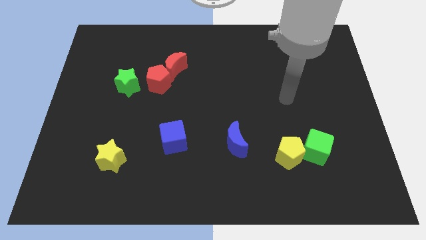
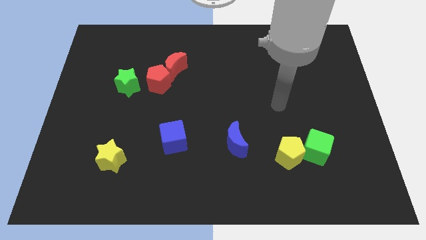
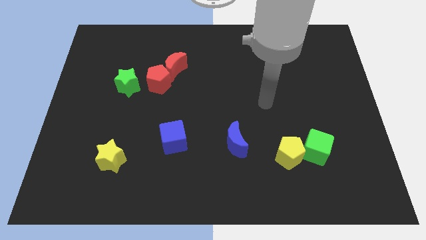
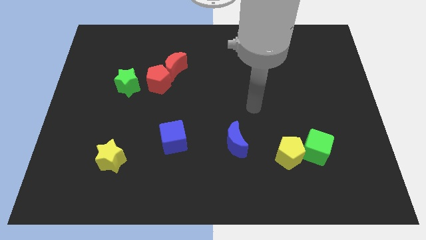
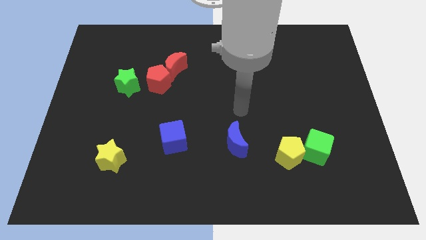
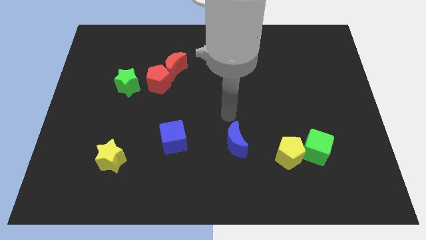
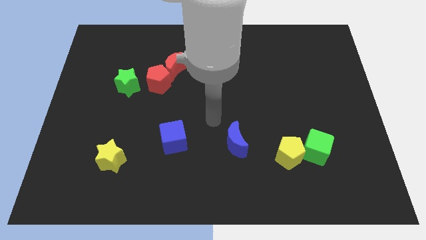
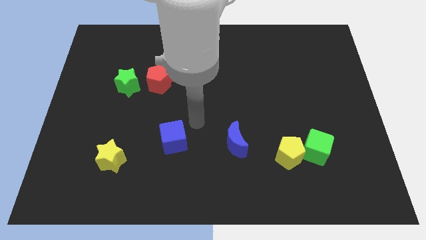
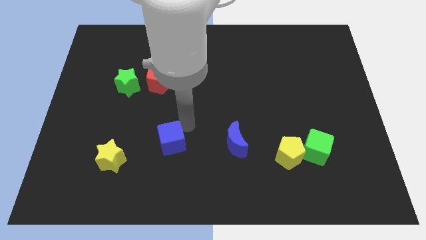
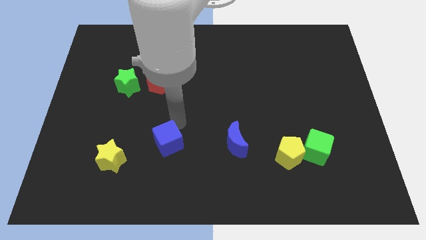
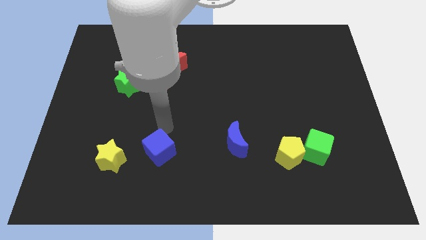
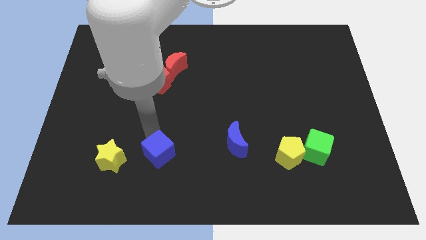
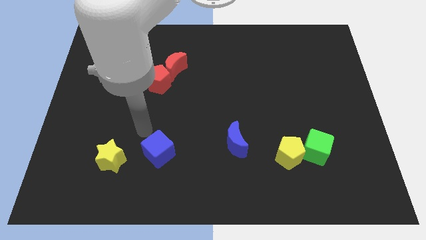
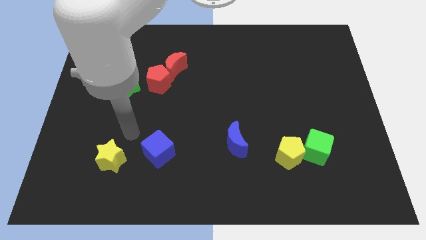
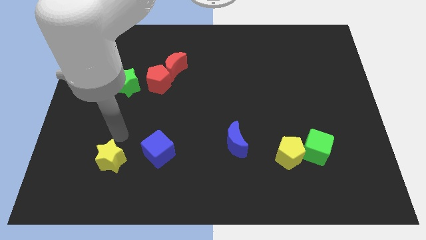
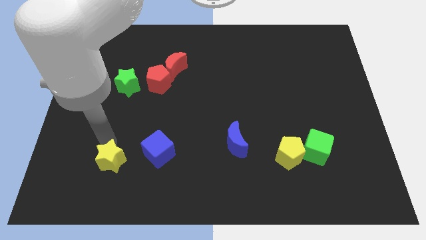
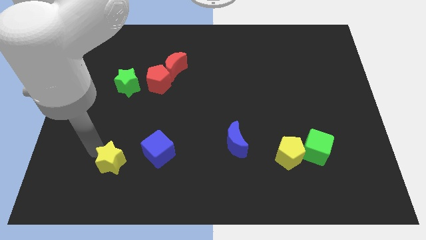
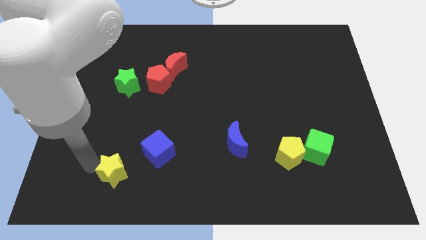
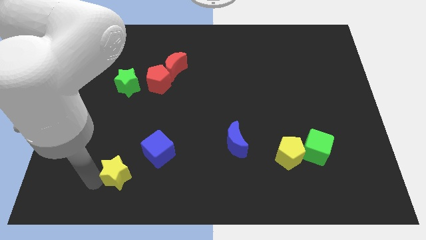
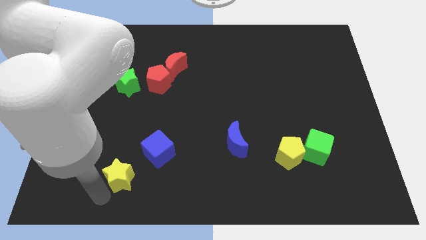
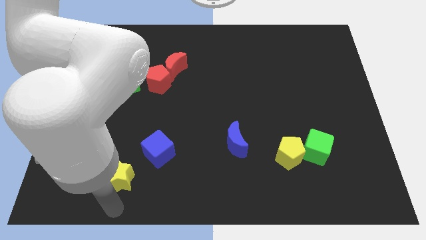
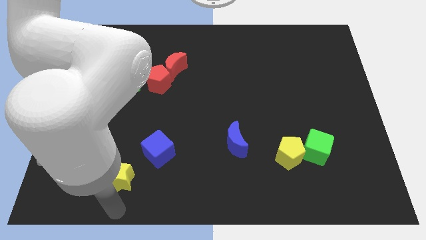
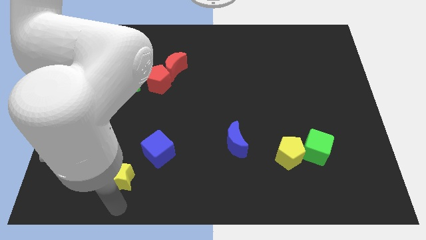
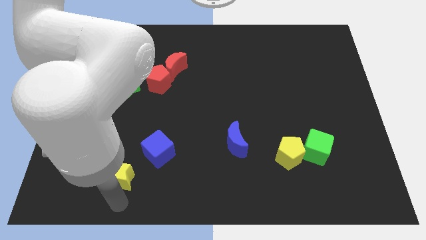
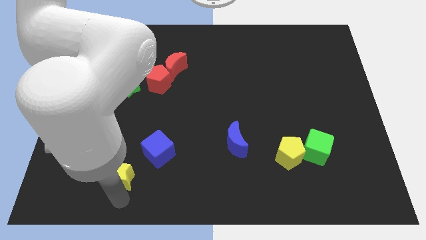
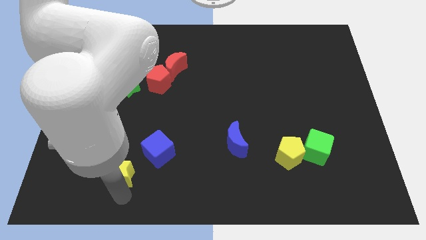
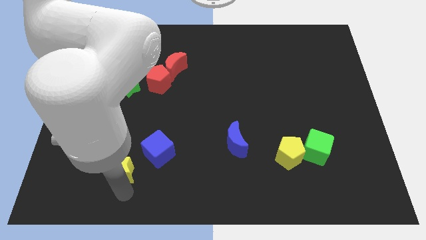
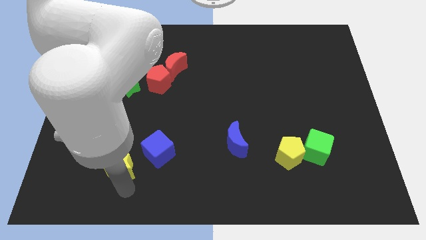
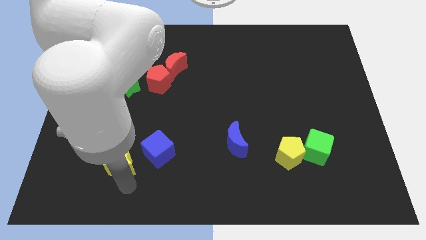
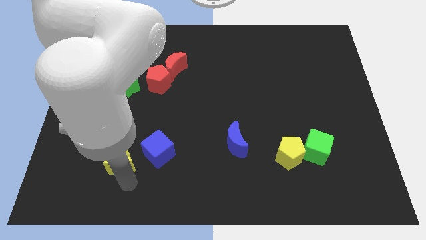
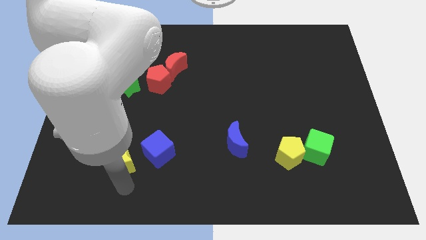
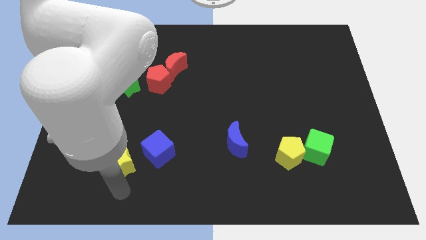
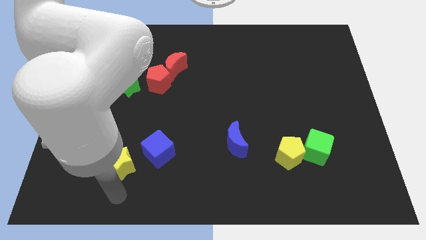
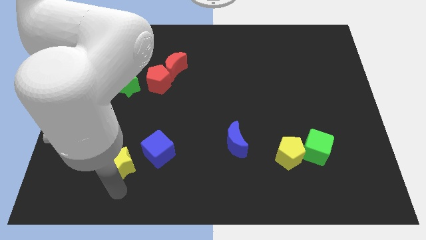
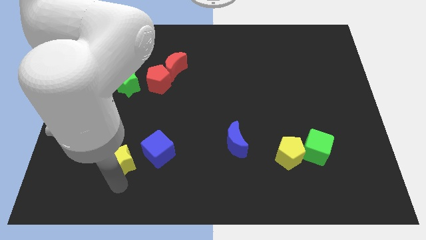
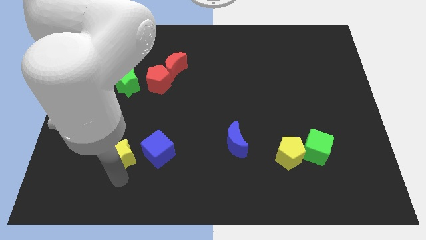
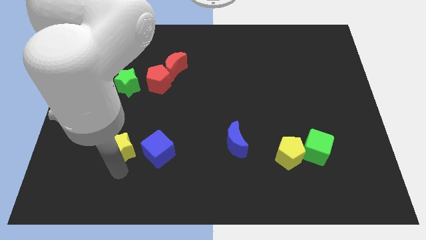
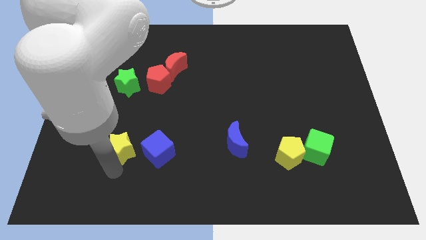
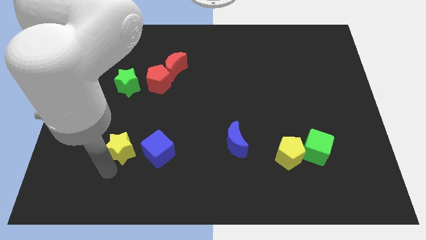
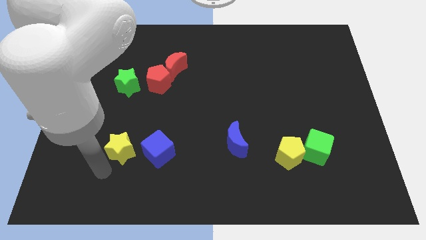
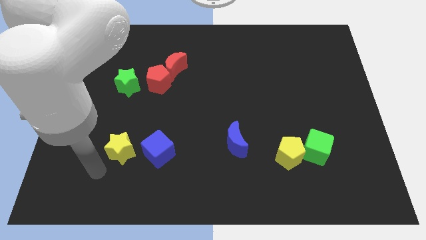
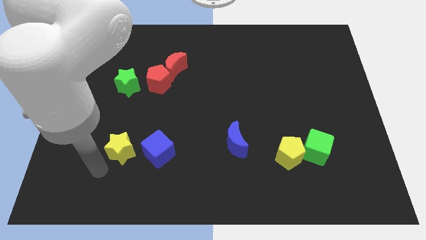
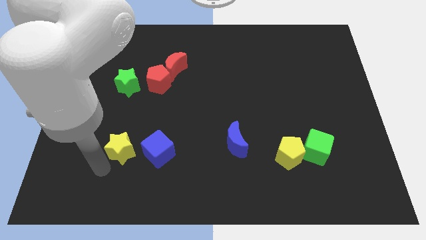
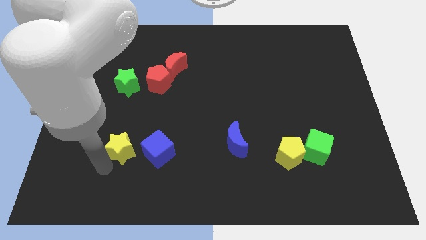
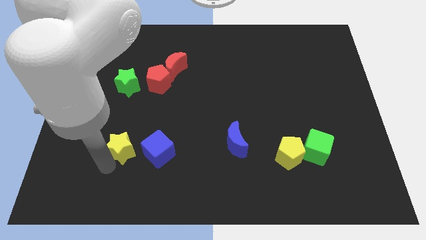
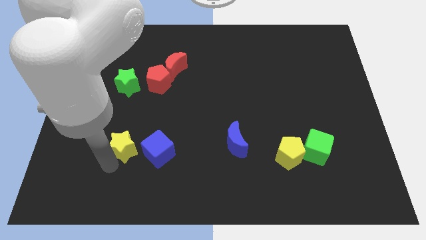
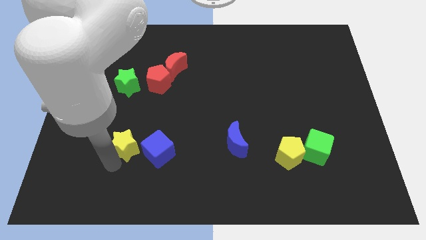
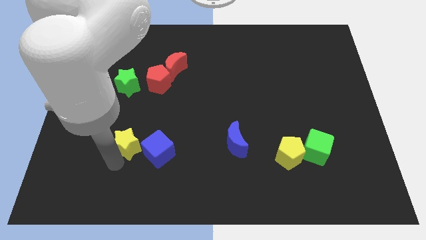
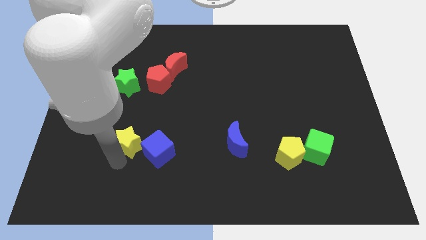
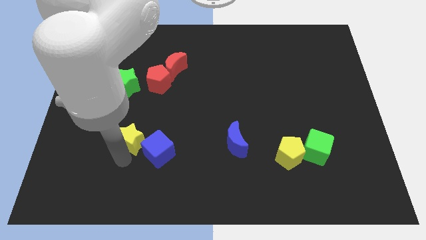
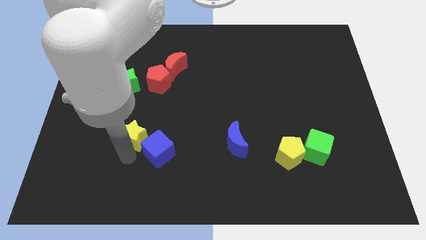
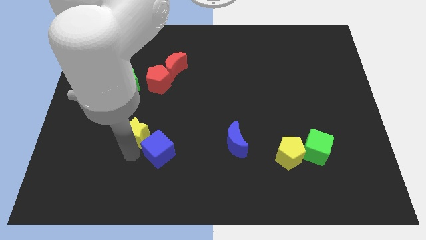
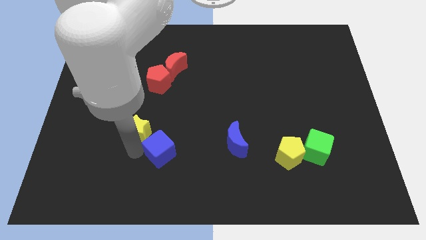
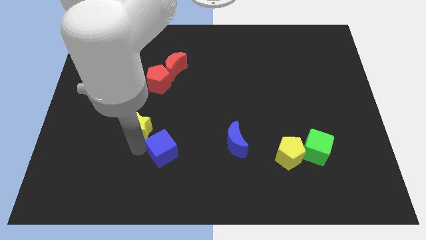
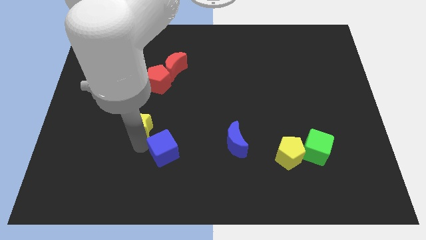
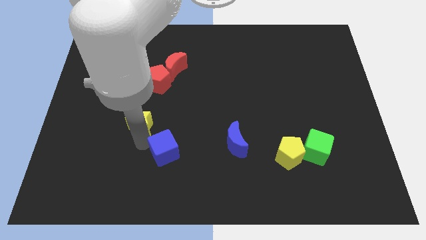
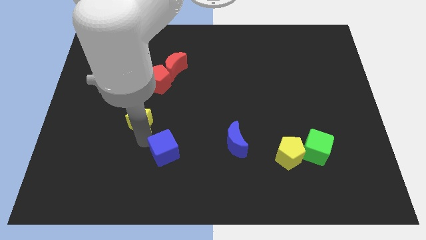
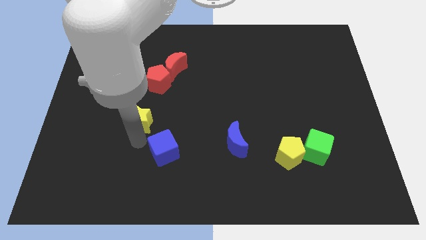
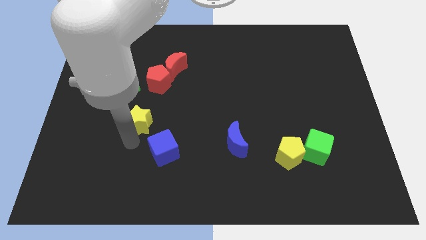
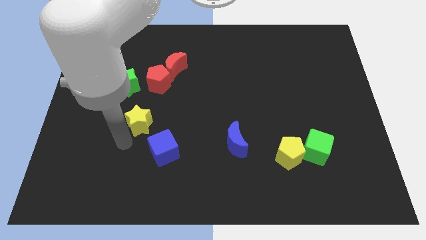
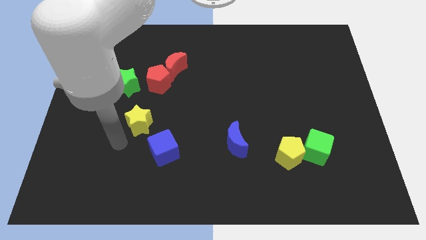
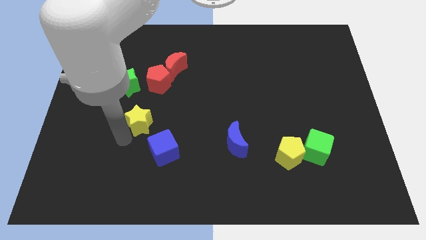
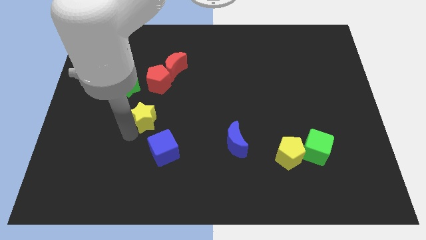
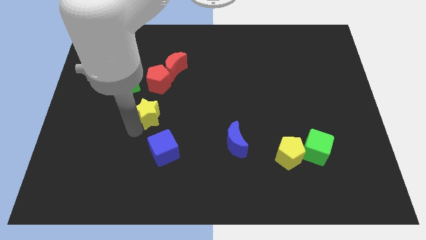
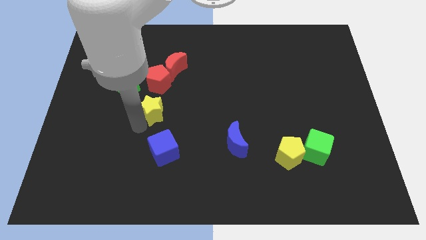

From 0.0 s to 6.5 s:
slide the yellow star below the red moon

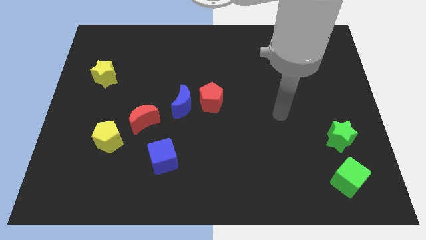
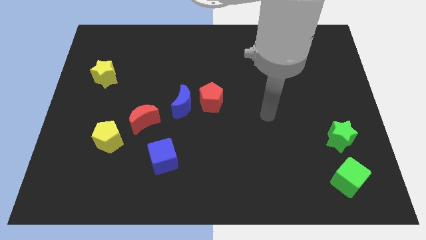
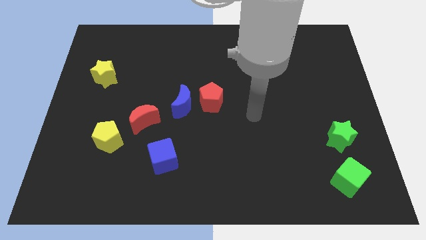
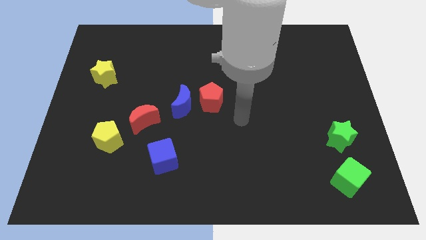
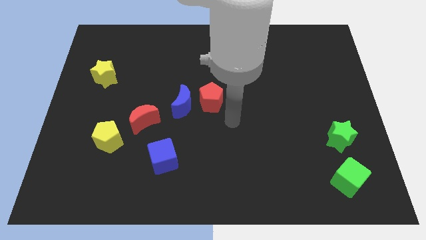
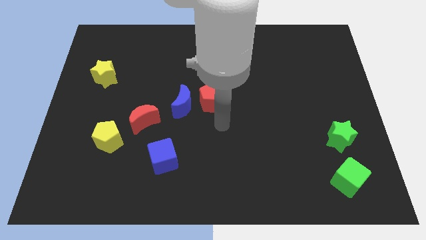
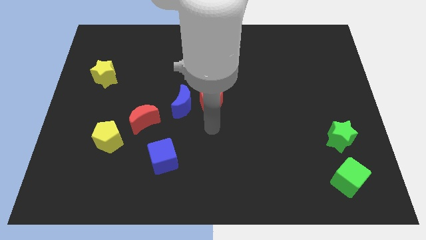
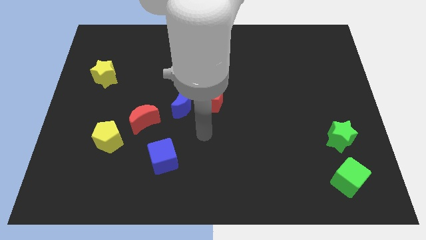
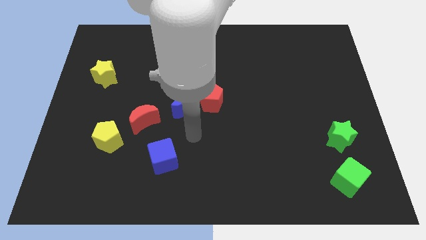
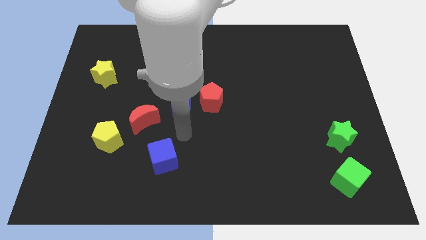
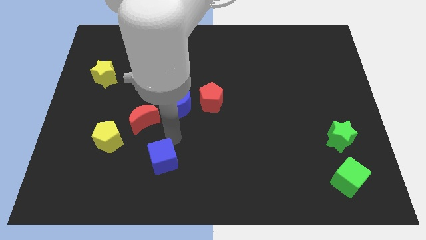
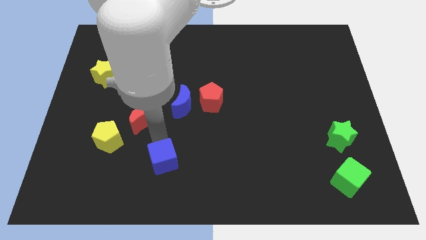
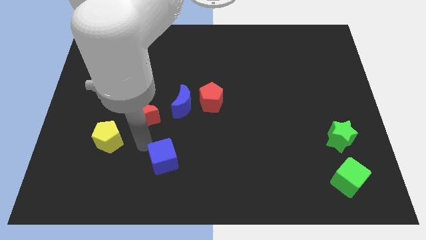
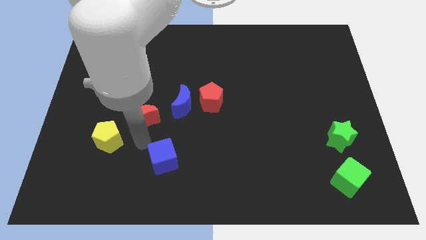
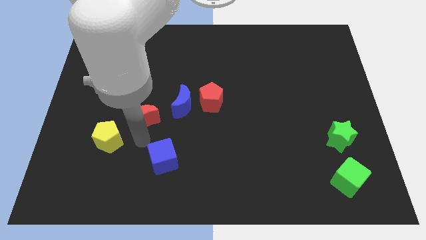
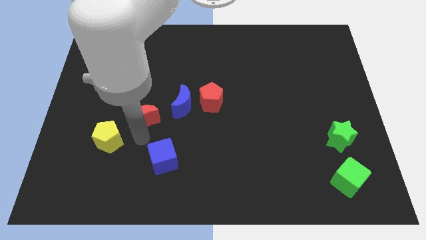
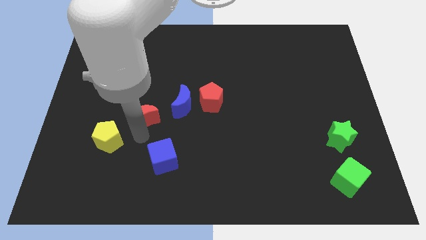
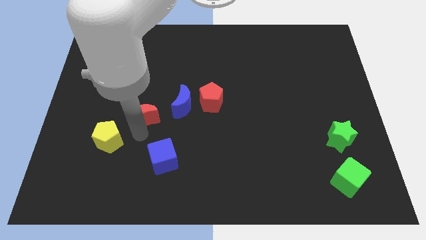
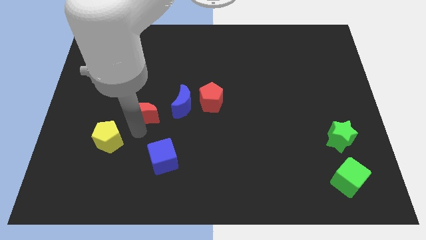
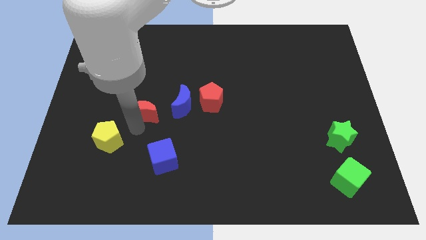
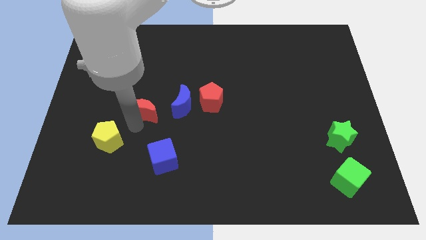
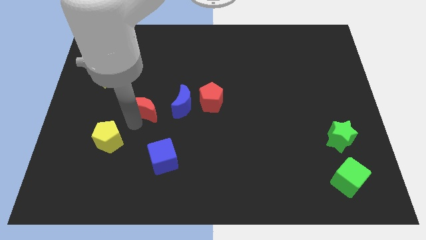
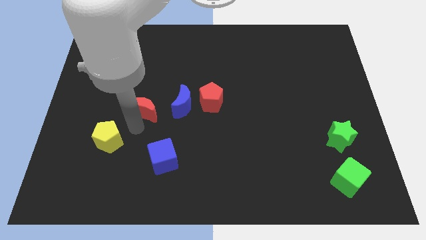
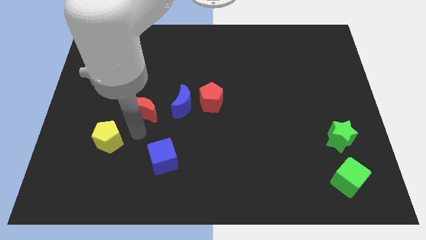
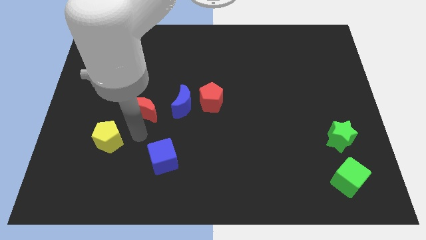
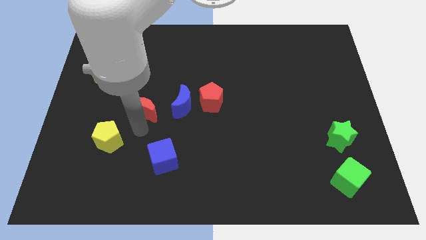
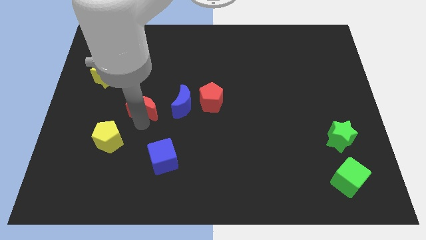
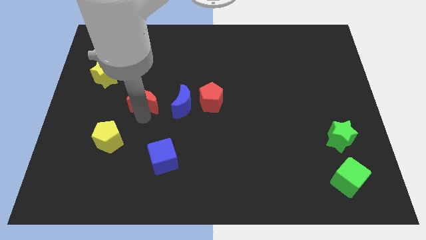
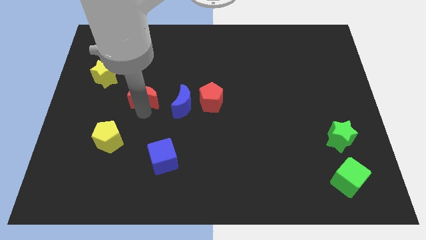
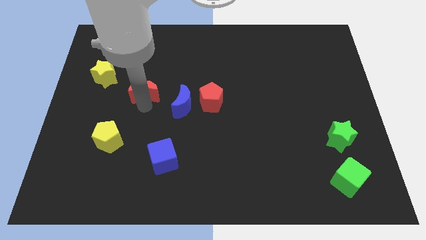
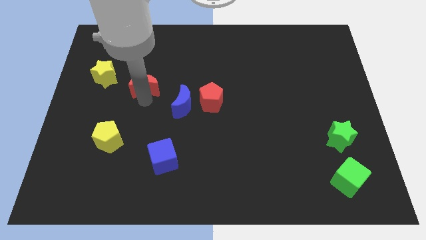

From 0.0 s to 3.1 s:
push the red moon to the right side of the yellow star
